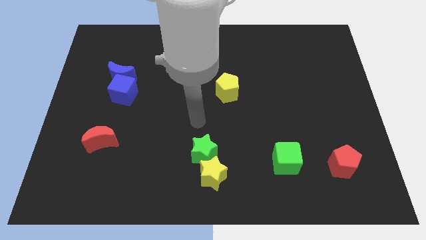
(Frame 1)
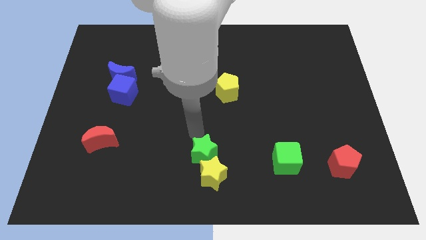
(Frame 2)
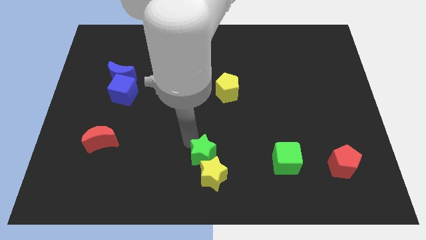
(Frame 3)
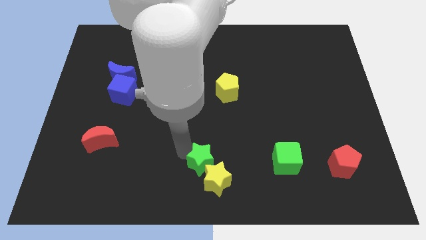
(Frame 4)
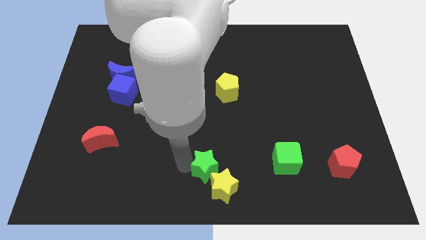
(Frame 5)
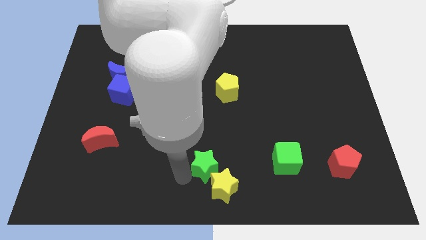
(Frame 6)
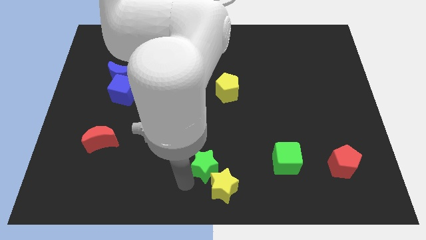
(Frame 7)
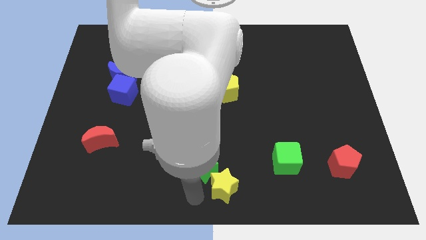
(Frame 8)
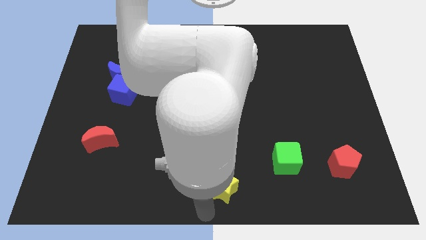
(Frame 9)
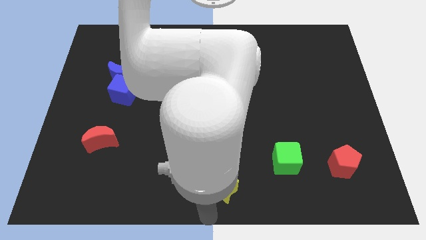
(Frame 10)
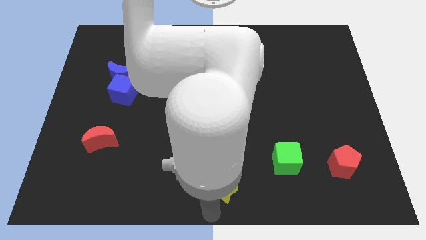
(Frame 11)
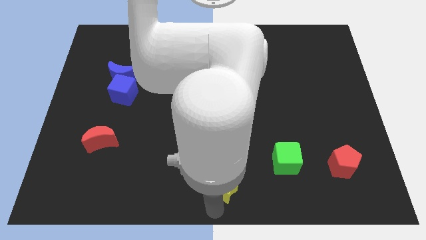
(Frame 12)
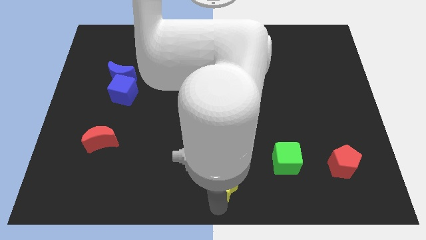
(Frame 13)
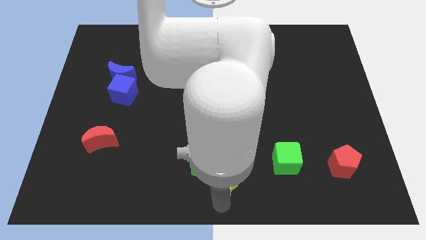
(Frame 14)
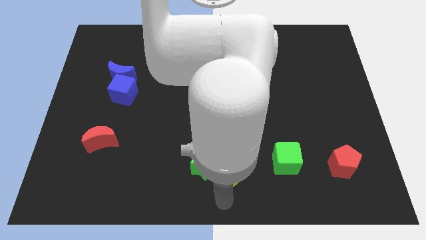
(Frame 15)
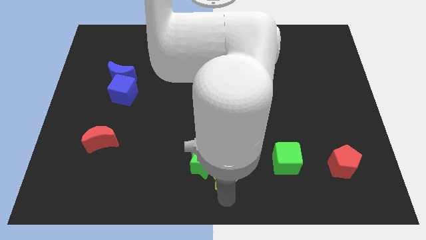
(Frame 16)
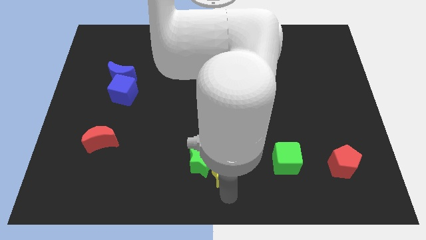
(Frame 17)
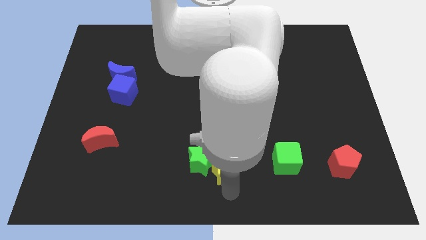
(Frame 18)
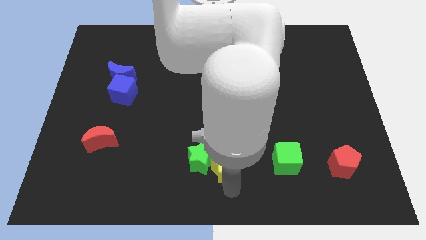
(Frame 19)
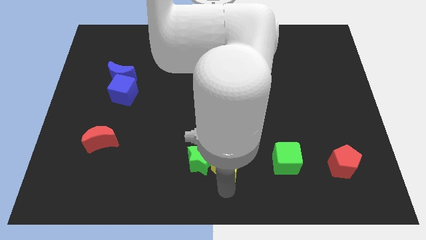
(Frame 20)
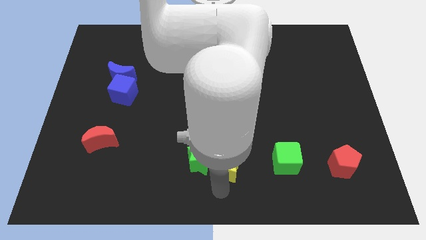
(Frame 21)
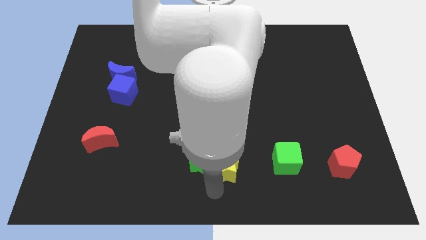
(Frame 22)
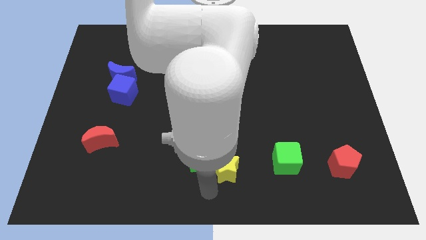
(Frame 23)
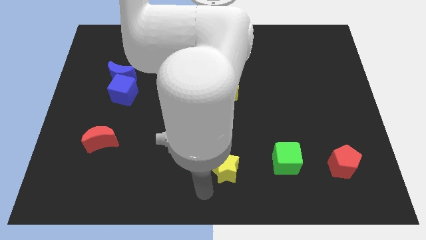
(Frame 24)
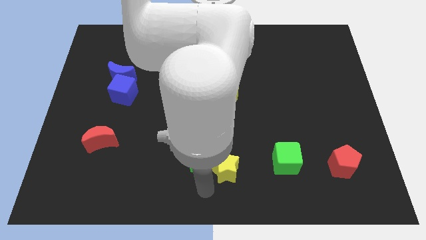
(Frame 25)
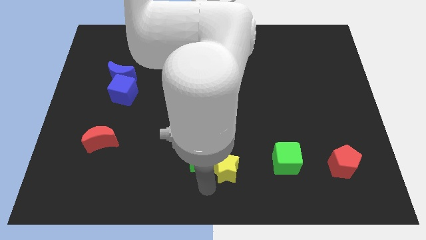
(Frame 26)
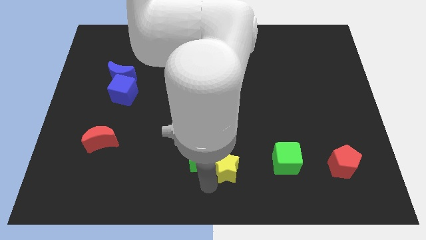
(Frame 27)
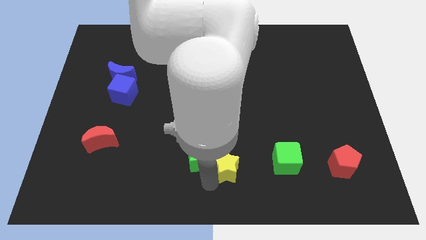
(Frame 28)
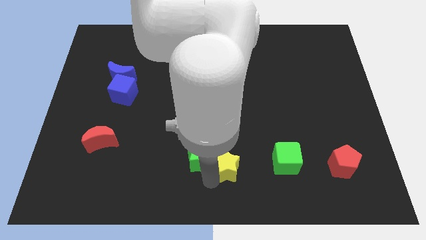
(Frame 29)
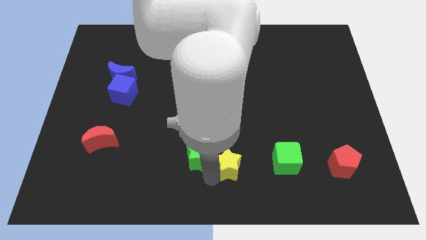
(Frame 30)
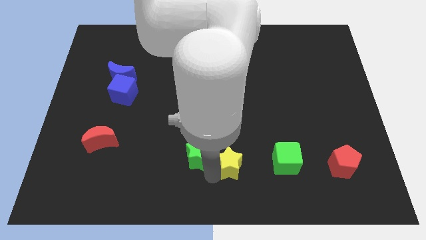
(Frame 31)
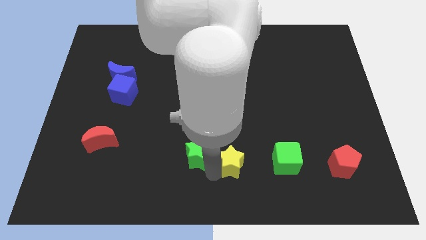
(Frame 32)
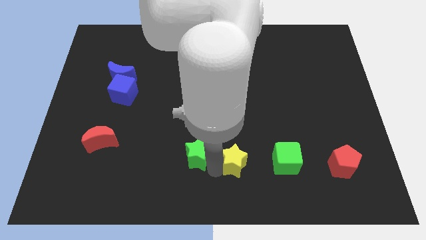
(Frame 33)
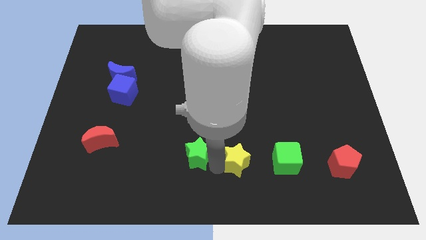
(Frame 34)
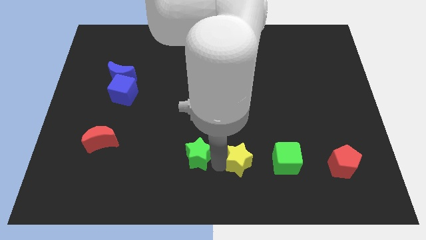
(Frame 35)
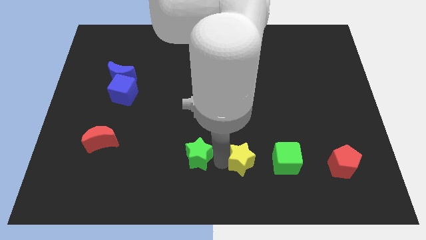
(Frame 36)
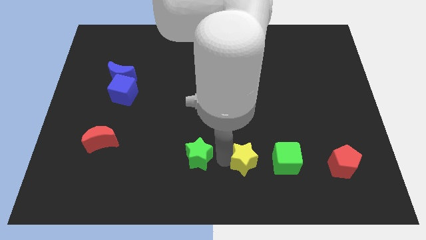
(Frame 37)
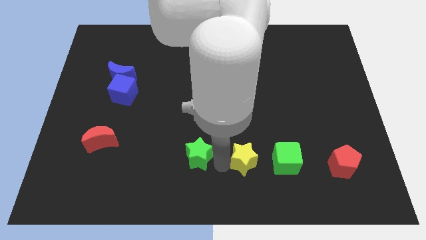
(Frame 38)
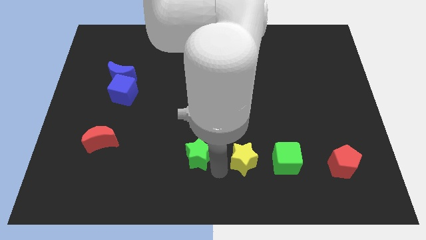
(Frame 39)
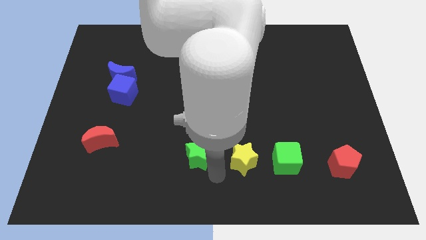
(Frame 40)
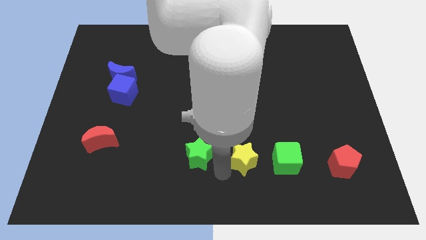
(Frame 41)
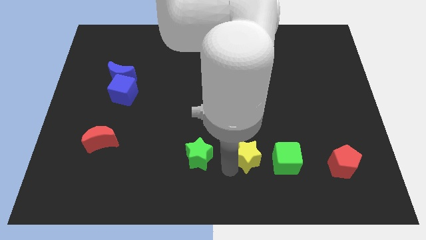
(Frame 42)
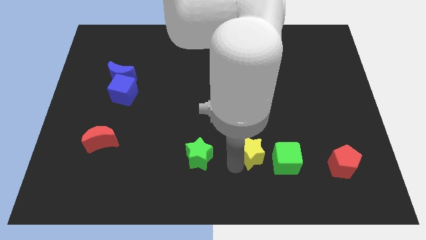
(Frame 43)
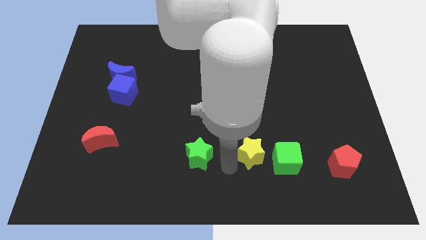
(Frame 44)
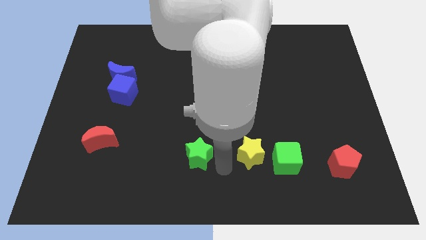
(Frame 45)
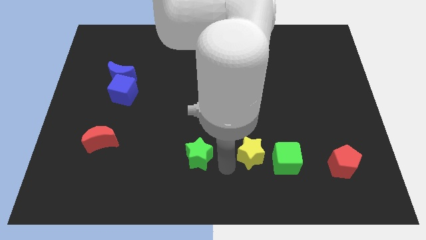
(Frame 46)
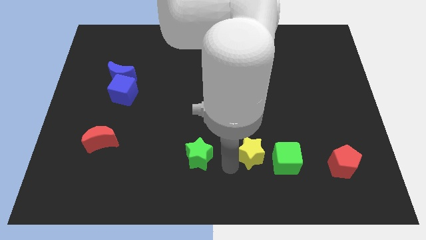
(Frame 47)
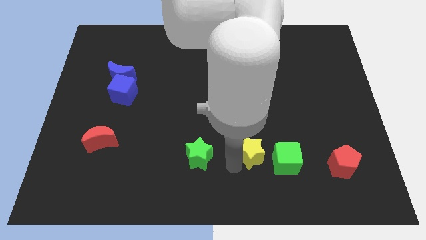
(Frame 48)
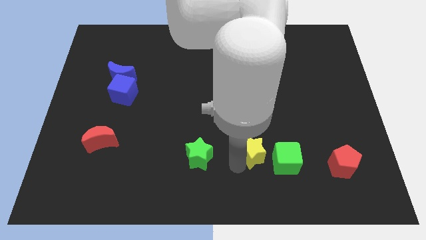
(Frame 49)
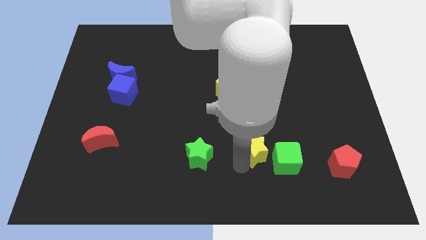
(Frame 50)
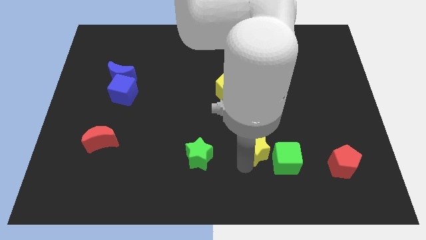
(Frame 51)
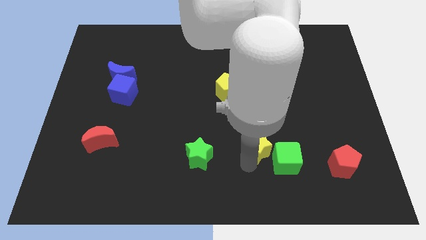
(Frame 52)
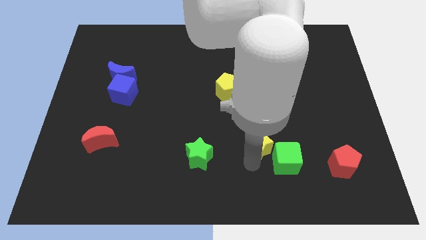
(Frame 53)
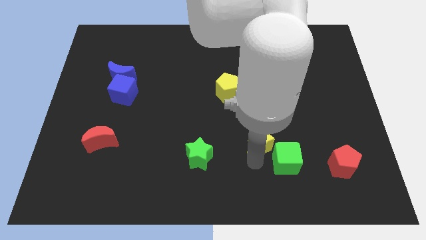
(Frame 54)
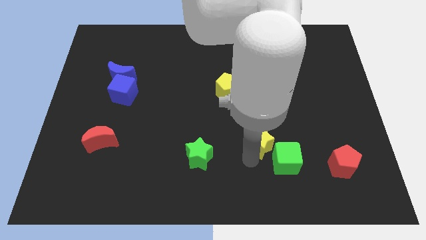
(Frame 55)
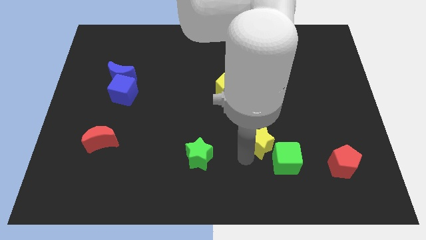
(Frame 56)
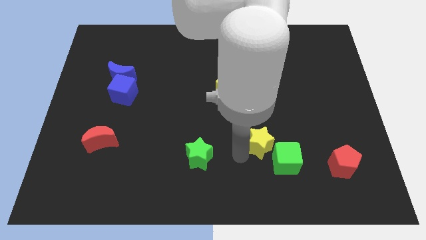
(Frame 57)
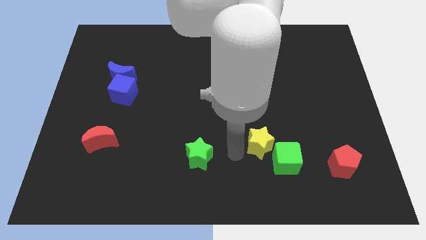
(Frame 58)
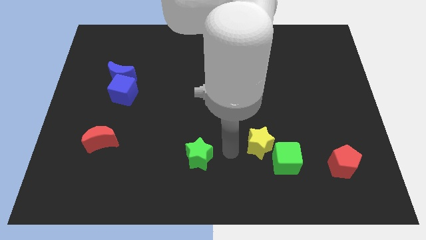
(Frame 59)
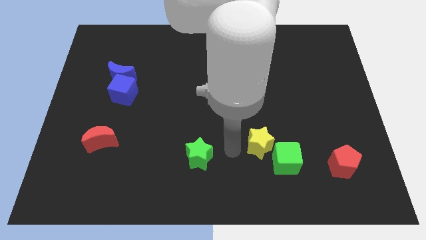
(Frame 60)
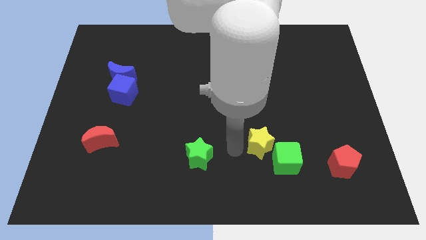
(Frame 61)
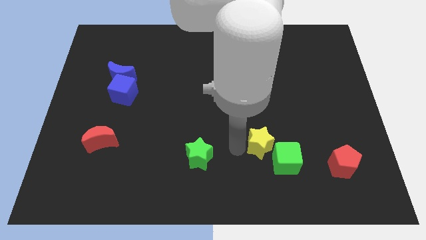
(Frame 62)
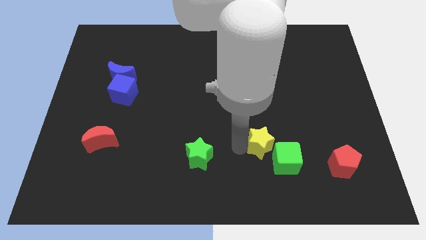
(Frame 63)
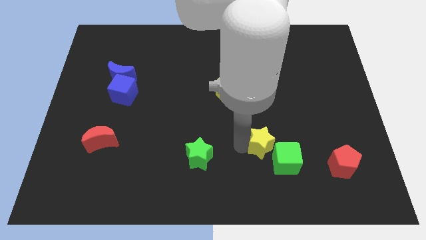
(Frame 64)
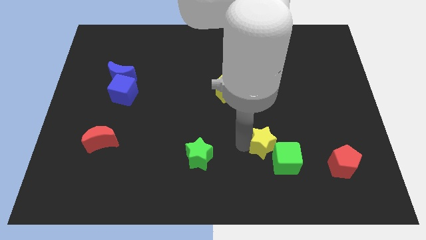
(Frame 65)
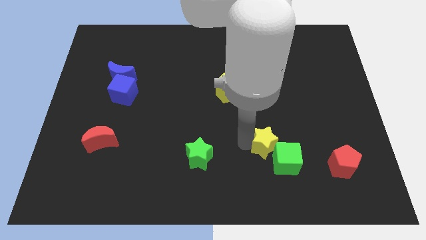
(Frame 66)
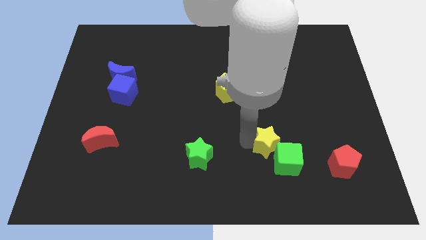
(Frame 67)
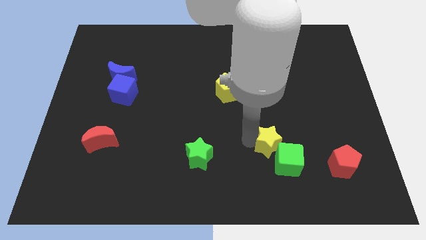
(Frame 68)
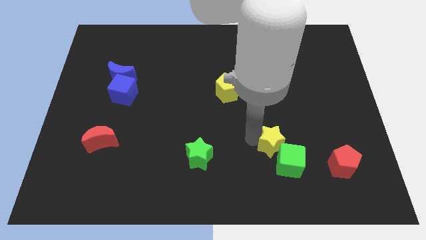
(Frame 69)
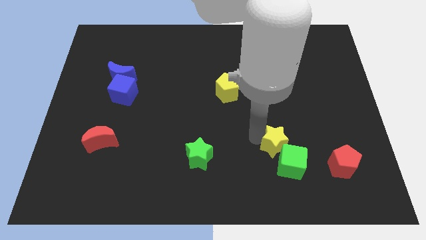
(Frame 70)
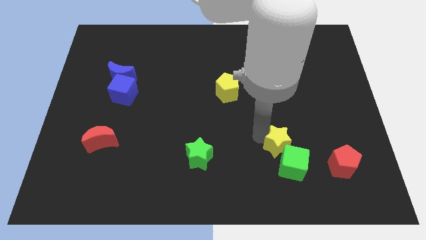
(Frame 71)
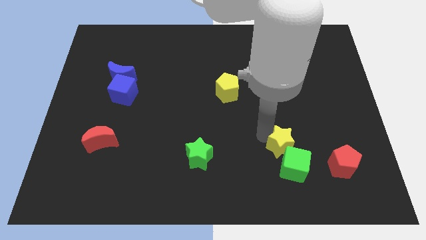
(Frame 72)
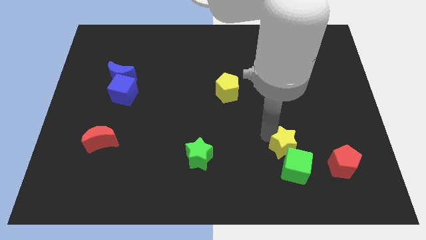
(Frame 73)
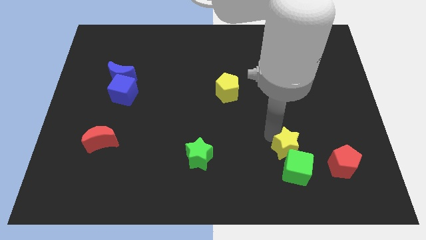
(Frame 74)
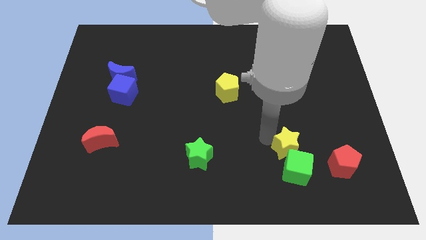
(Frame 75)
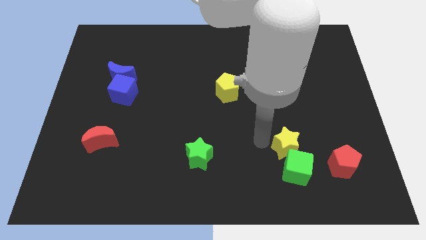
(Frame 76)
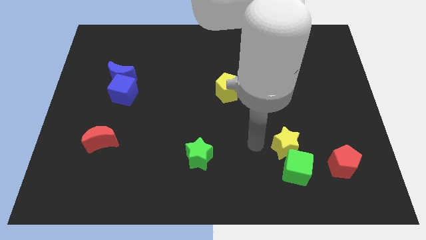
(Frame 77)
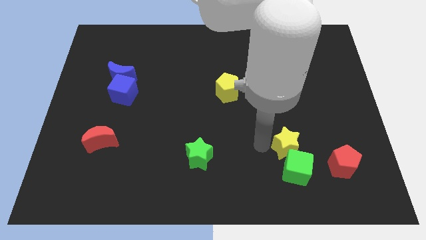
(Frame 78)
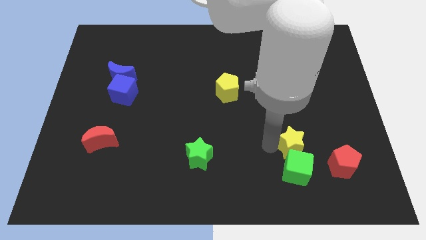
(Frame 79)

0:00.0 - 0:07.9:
move the yellow star to the top right of the green cube
